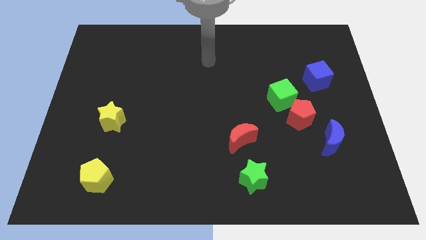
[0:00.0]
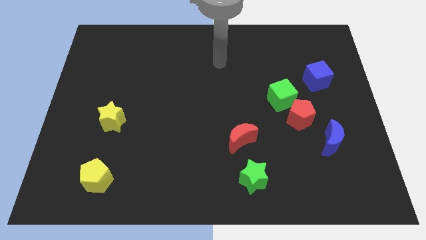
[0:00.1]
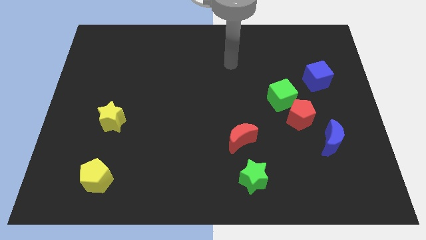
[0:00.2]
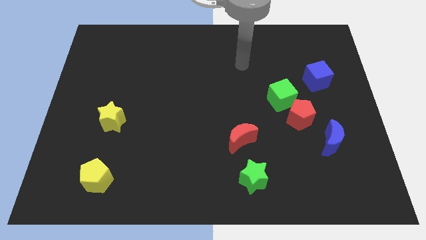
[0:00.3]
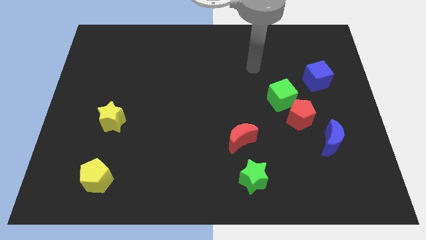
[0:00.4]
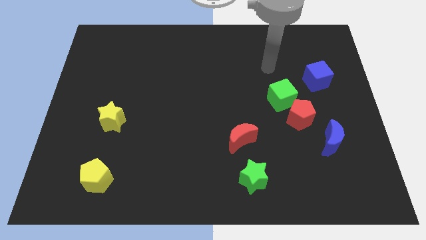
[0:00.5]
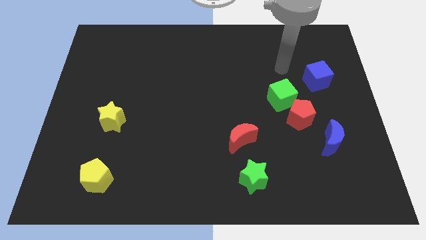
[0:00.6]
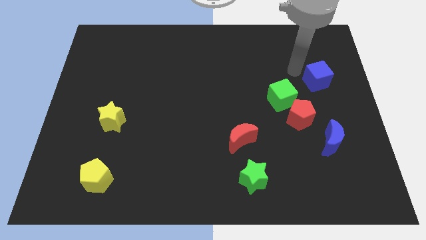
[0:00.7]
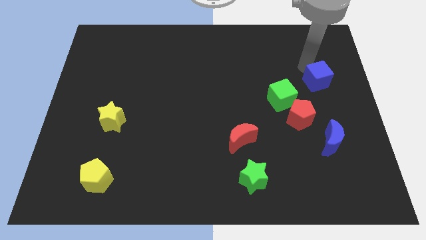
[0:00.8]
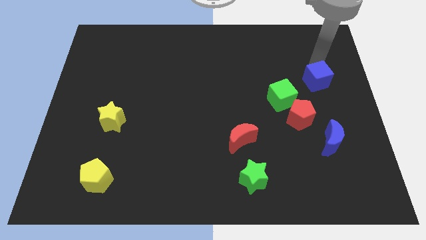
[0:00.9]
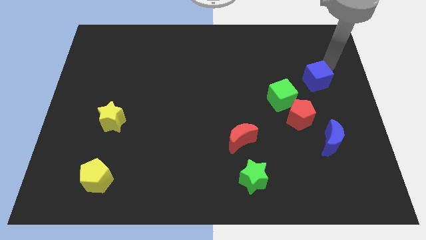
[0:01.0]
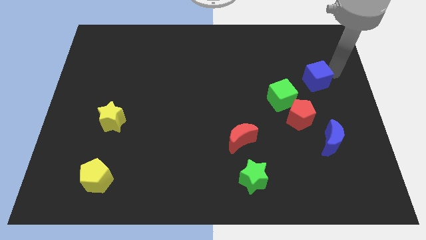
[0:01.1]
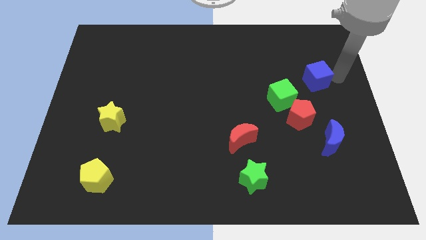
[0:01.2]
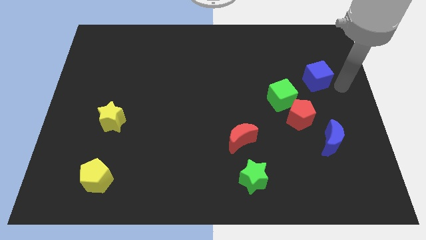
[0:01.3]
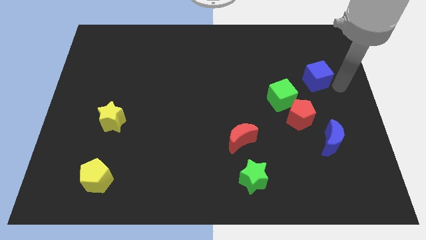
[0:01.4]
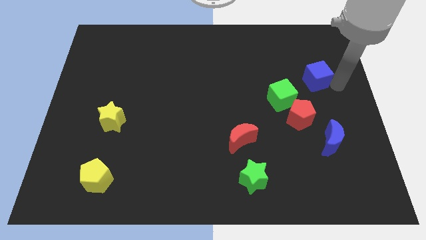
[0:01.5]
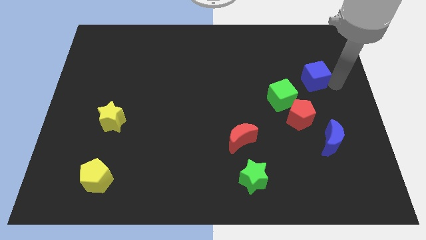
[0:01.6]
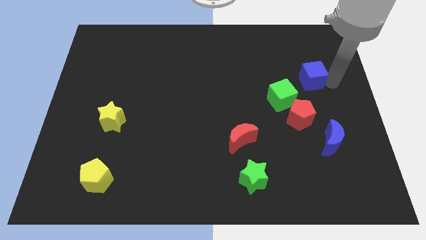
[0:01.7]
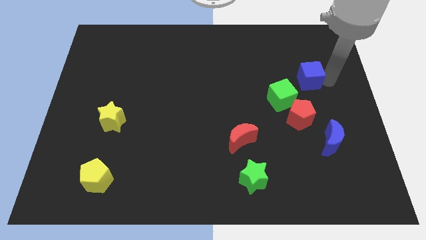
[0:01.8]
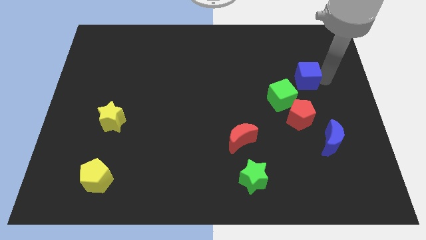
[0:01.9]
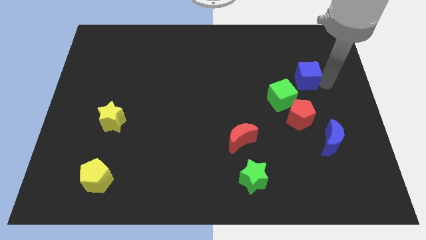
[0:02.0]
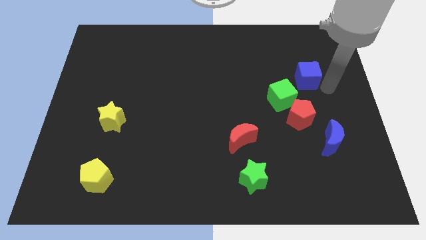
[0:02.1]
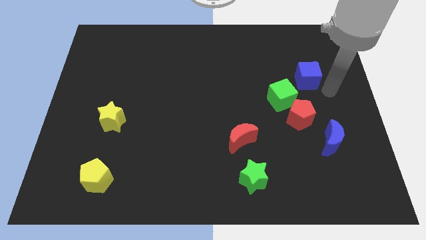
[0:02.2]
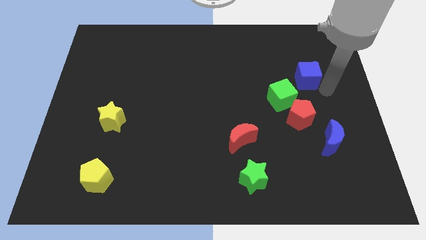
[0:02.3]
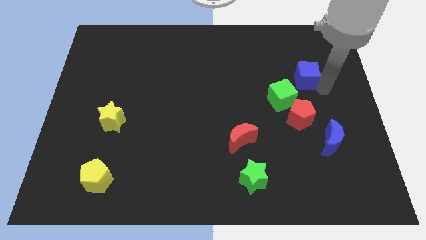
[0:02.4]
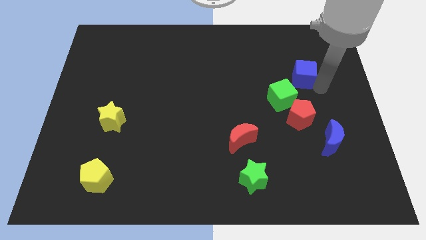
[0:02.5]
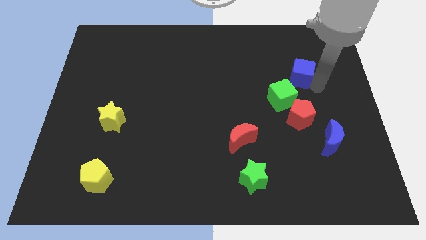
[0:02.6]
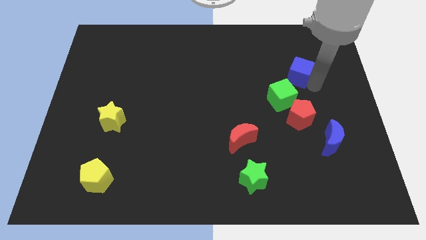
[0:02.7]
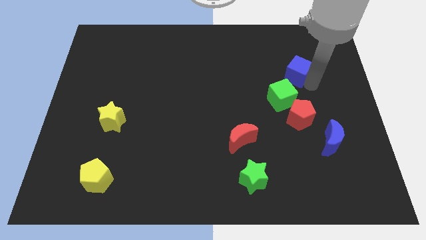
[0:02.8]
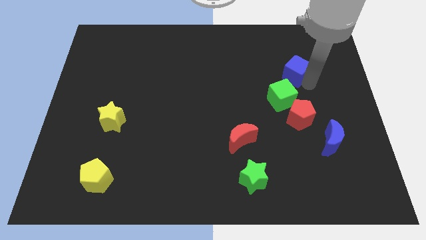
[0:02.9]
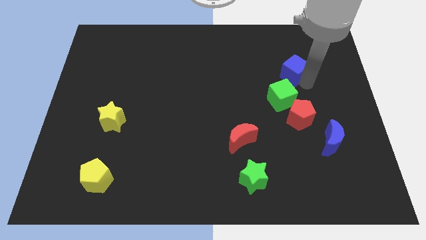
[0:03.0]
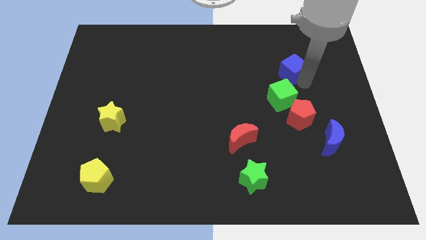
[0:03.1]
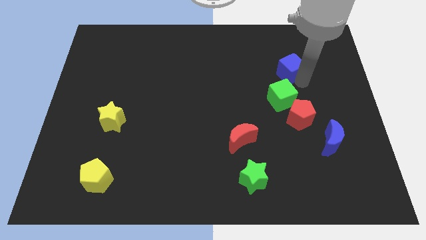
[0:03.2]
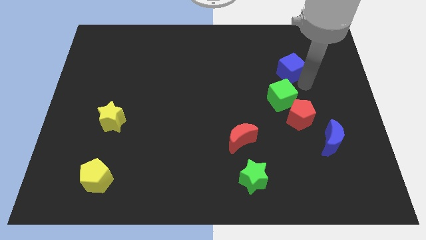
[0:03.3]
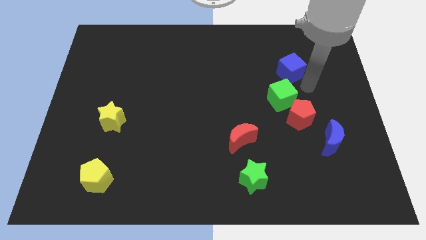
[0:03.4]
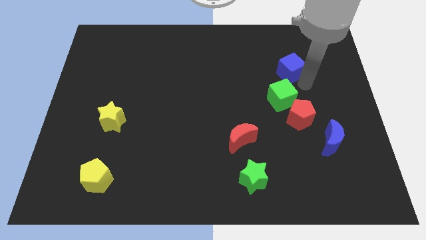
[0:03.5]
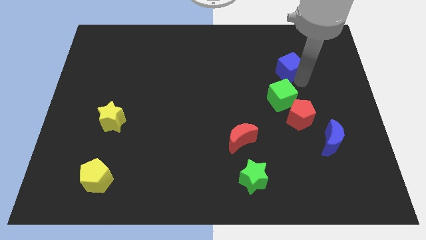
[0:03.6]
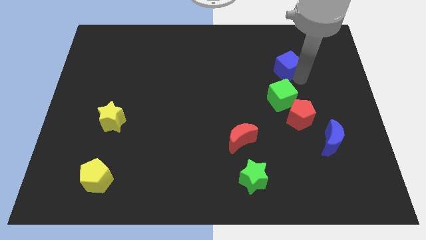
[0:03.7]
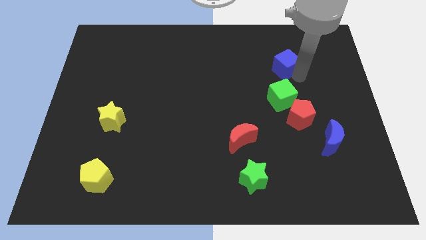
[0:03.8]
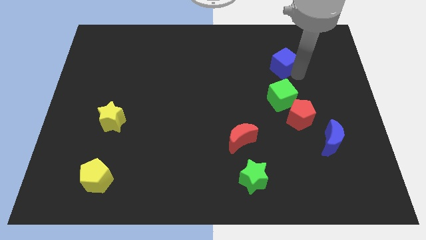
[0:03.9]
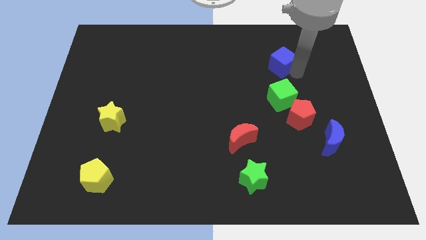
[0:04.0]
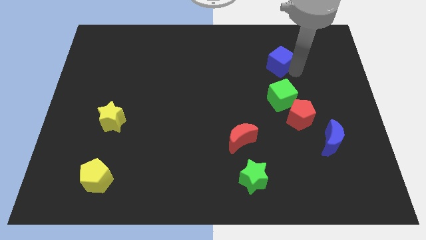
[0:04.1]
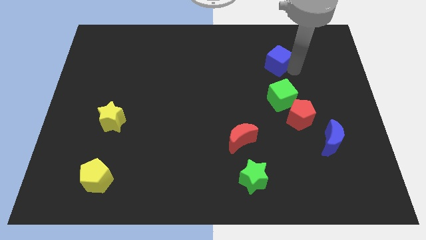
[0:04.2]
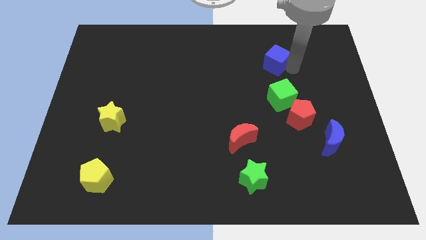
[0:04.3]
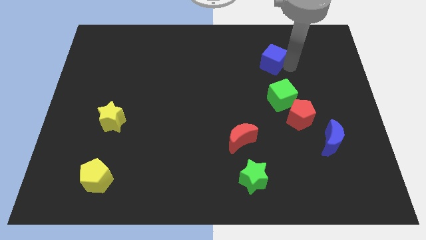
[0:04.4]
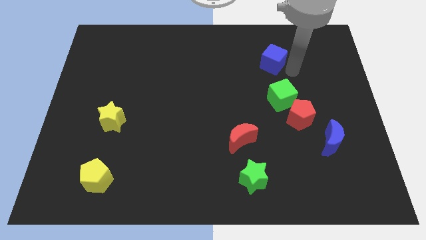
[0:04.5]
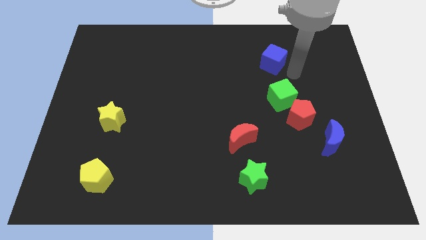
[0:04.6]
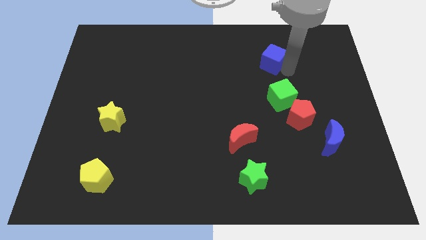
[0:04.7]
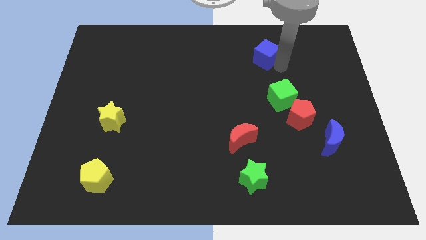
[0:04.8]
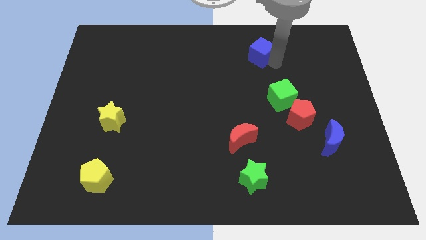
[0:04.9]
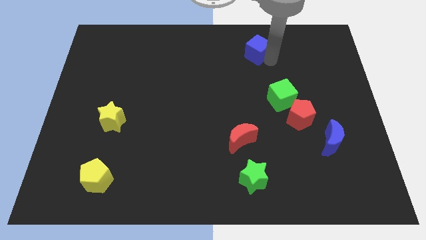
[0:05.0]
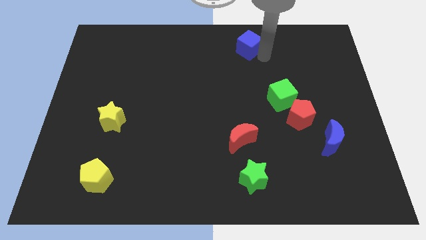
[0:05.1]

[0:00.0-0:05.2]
put the blue cube to the top

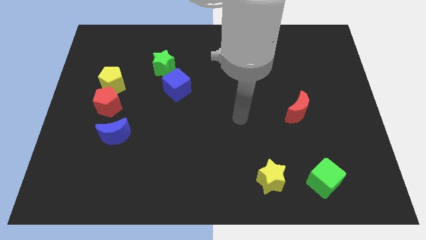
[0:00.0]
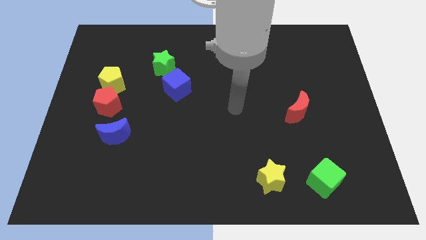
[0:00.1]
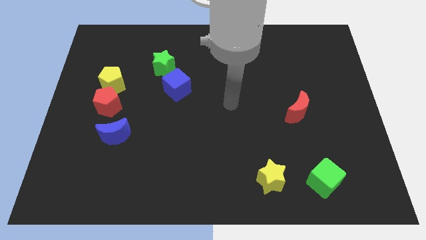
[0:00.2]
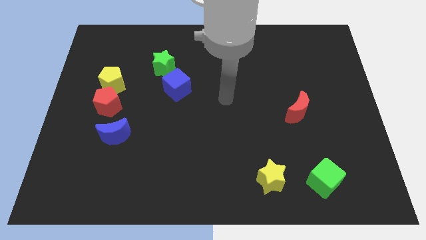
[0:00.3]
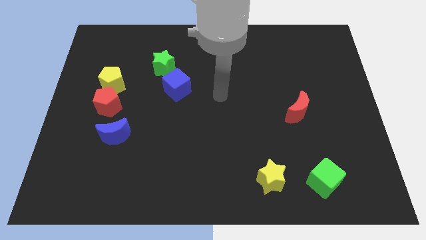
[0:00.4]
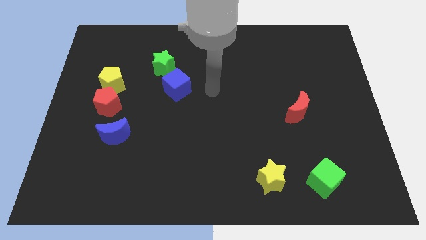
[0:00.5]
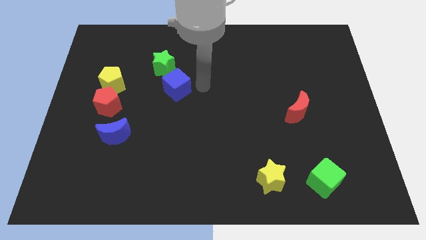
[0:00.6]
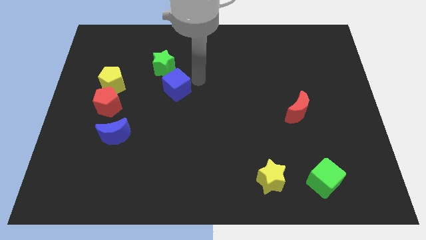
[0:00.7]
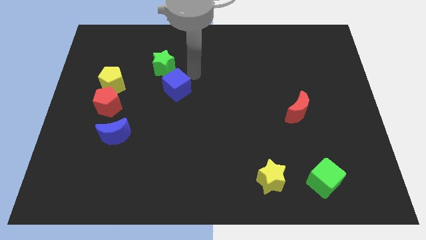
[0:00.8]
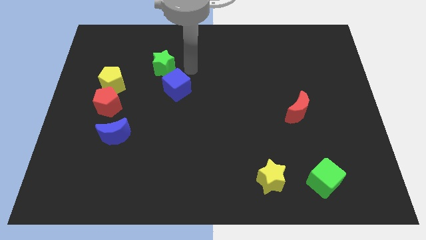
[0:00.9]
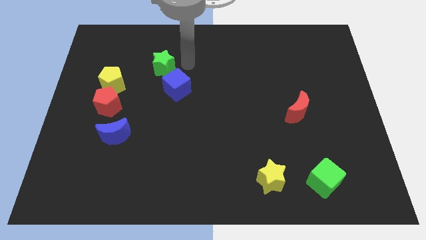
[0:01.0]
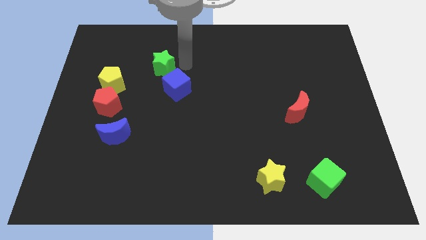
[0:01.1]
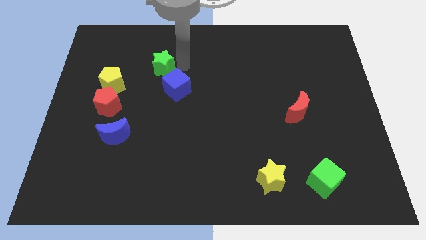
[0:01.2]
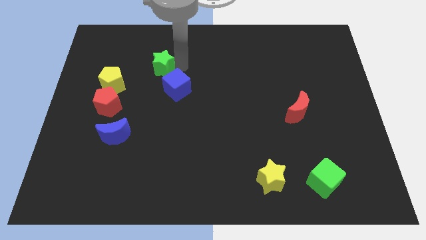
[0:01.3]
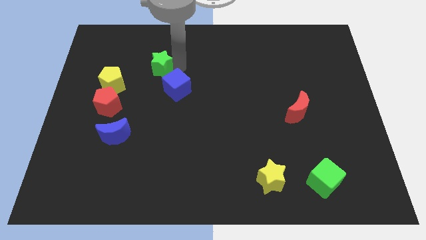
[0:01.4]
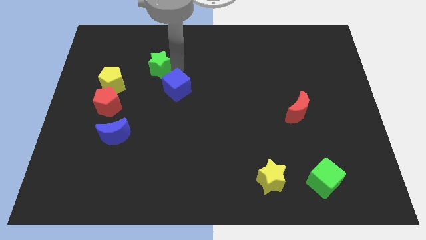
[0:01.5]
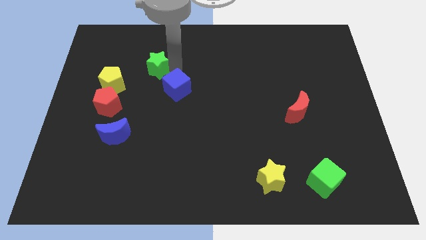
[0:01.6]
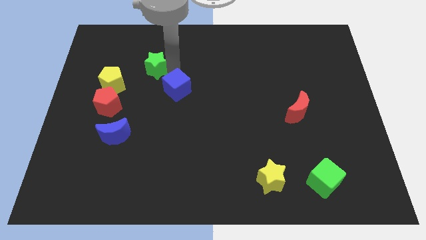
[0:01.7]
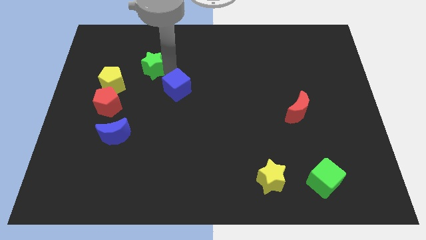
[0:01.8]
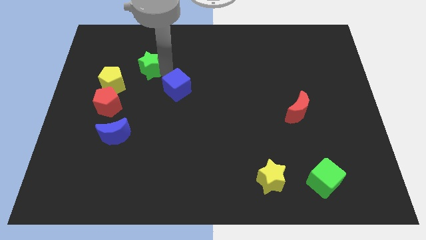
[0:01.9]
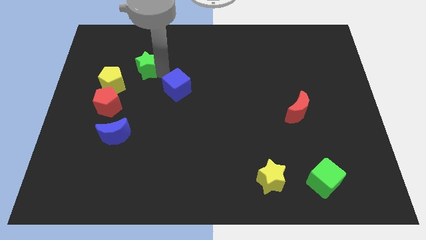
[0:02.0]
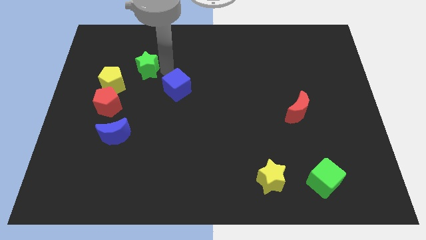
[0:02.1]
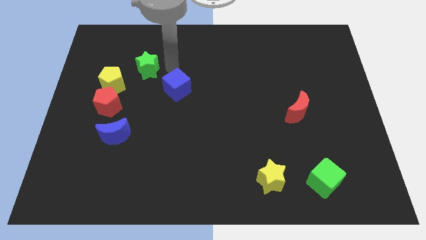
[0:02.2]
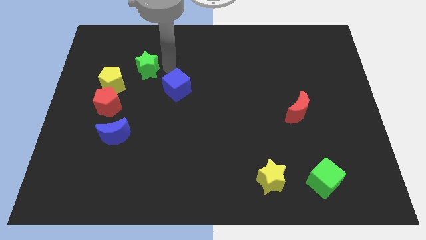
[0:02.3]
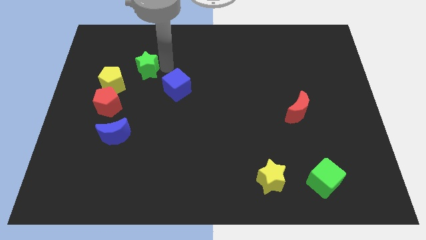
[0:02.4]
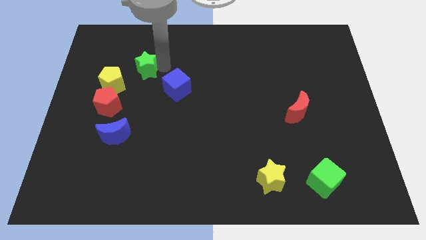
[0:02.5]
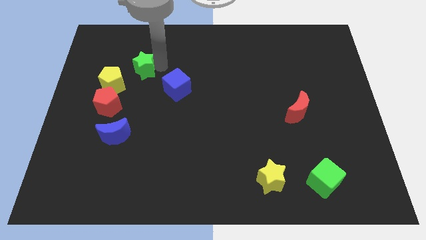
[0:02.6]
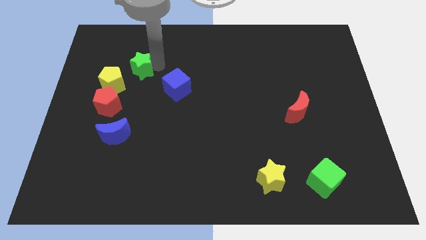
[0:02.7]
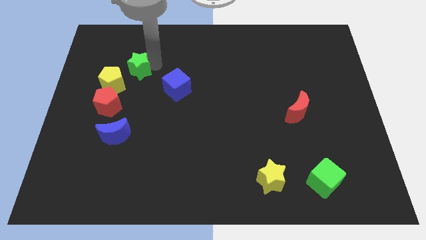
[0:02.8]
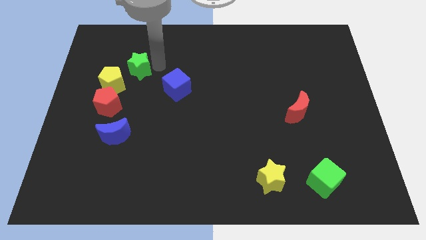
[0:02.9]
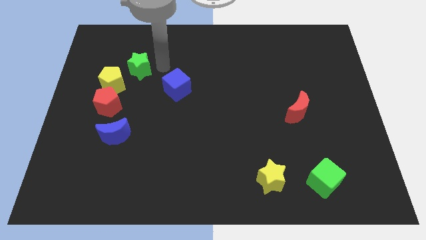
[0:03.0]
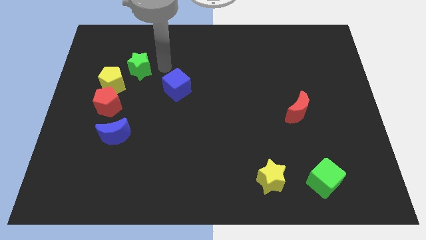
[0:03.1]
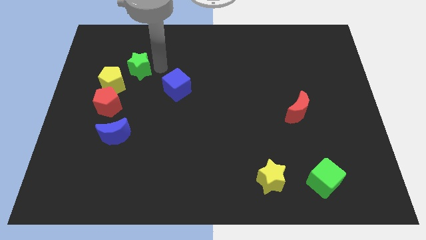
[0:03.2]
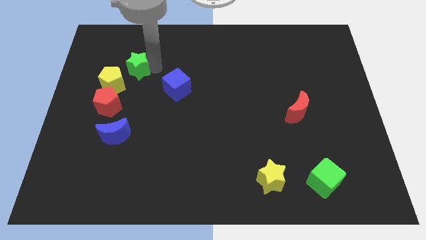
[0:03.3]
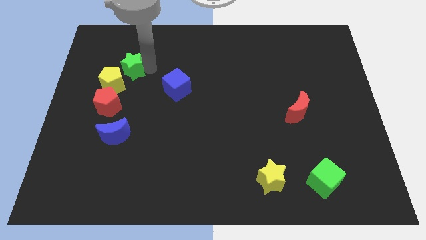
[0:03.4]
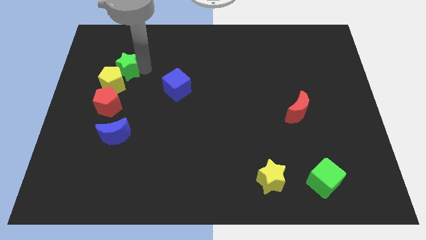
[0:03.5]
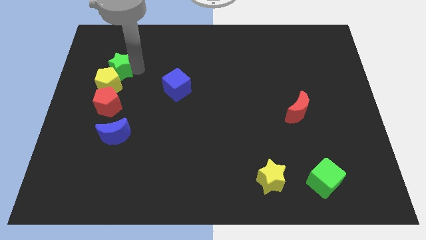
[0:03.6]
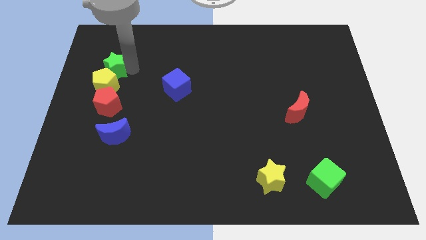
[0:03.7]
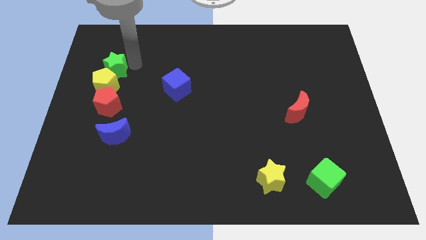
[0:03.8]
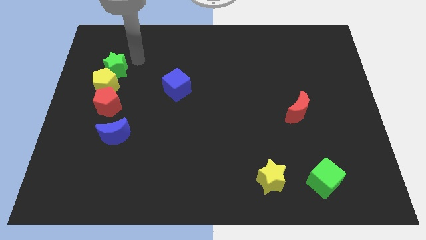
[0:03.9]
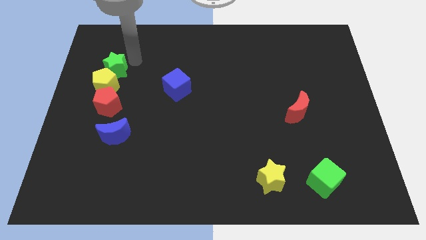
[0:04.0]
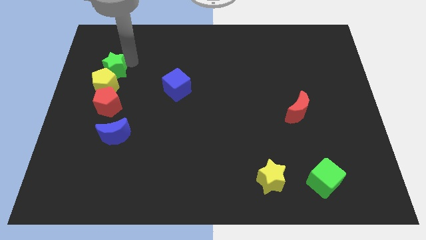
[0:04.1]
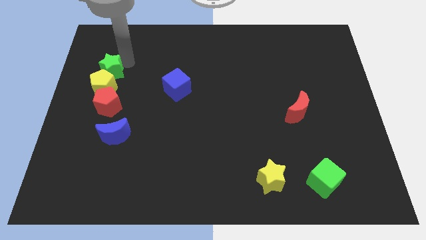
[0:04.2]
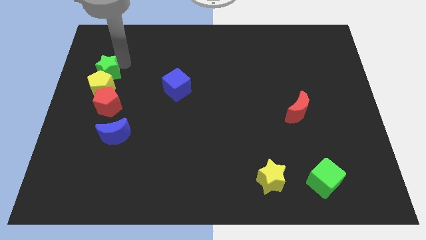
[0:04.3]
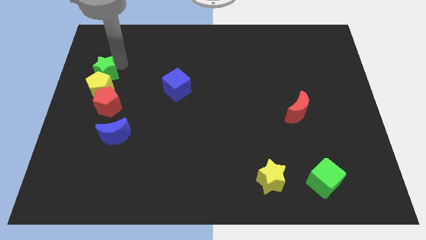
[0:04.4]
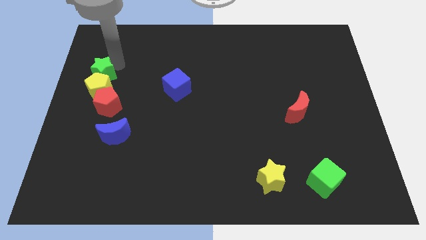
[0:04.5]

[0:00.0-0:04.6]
slide the green star to the left side of the board
